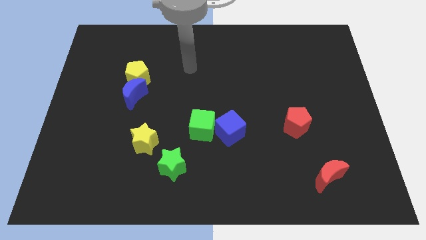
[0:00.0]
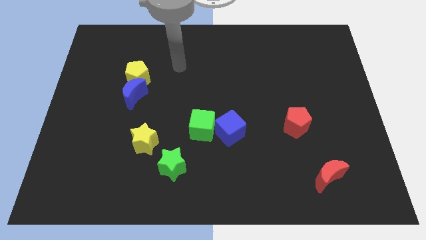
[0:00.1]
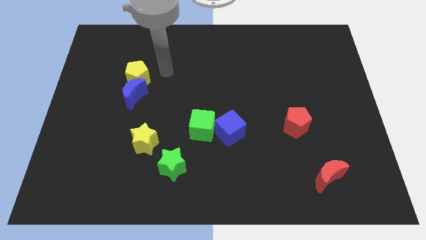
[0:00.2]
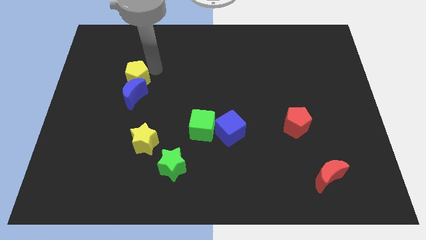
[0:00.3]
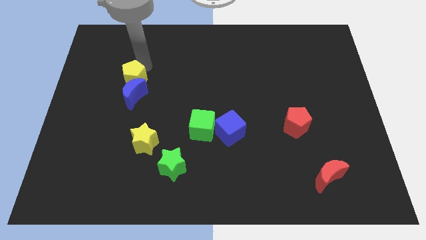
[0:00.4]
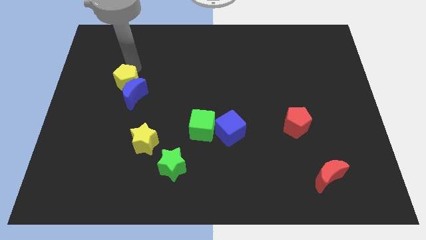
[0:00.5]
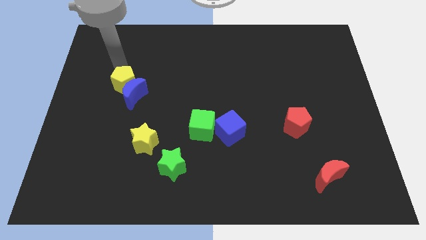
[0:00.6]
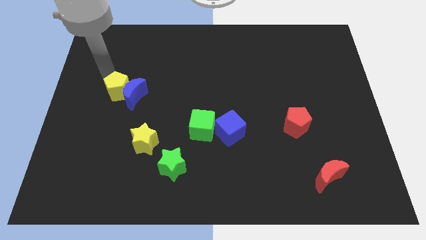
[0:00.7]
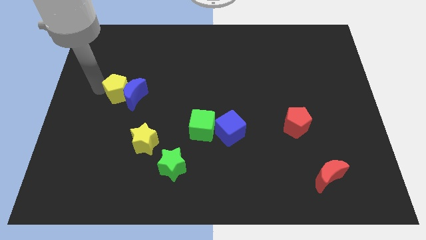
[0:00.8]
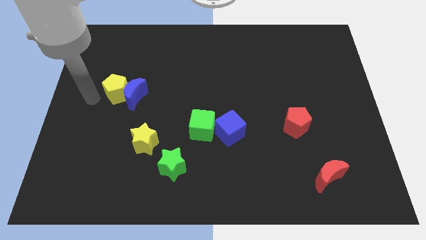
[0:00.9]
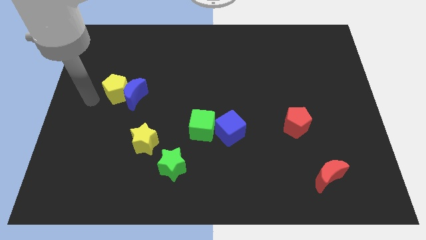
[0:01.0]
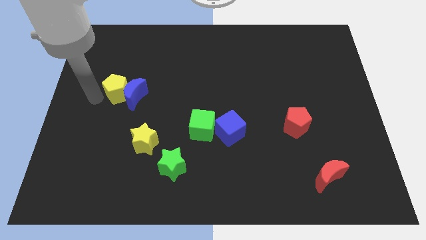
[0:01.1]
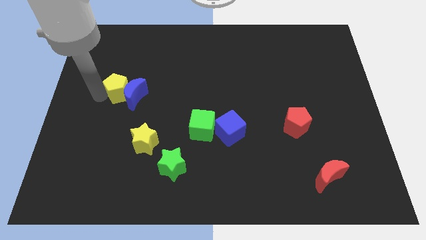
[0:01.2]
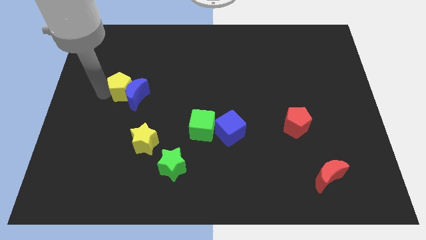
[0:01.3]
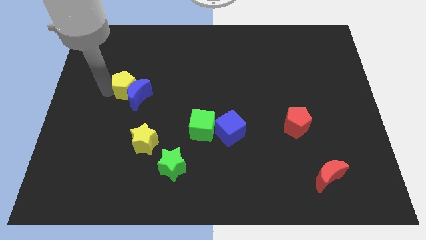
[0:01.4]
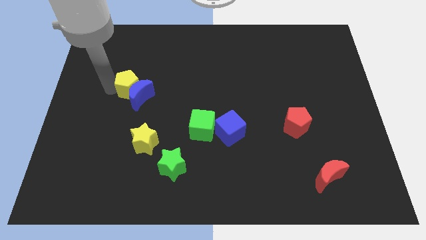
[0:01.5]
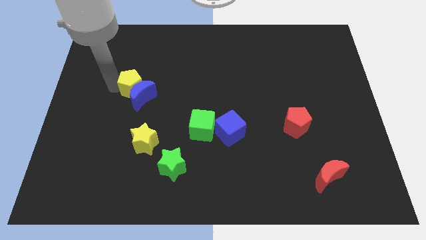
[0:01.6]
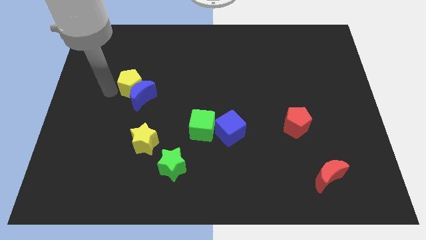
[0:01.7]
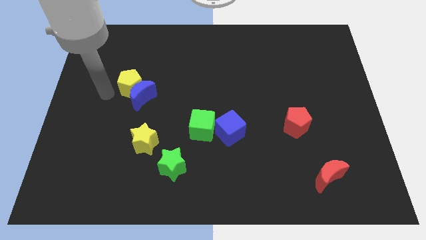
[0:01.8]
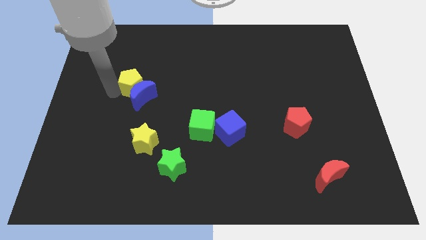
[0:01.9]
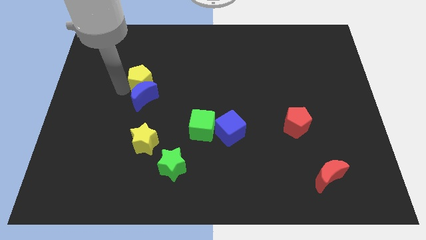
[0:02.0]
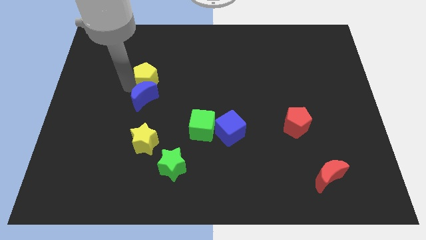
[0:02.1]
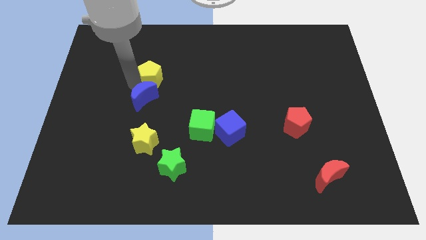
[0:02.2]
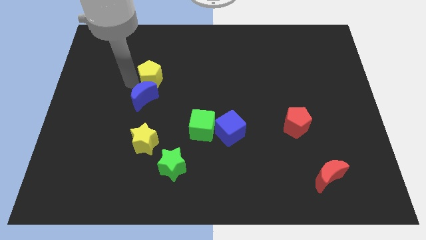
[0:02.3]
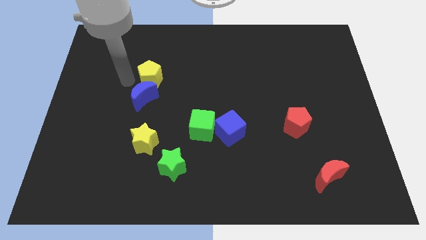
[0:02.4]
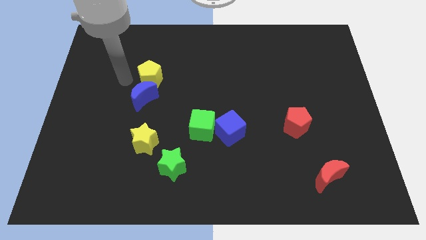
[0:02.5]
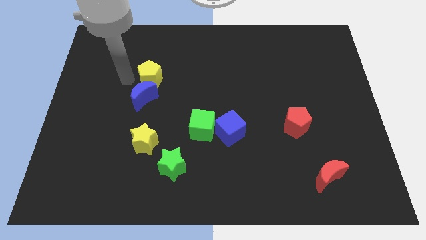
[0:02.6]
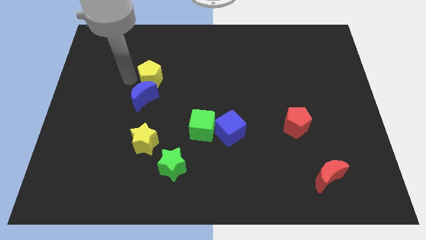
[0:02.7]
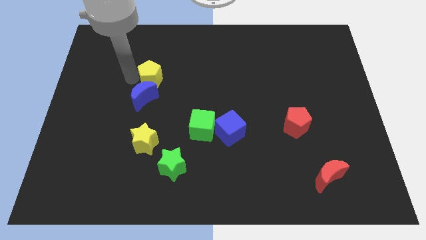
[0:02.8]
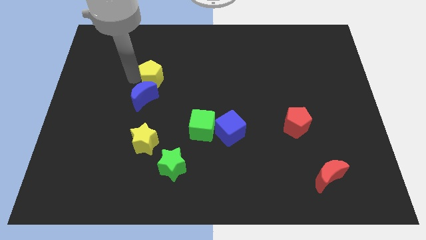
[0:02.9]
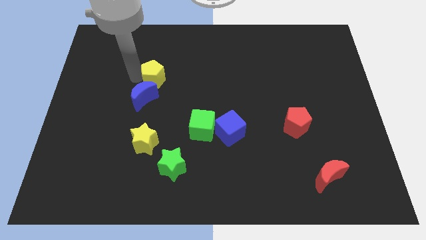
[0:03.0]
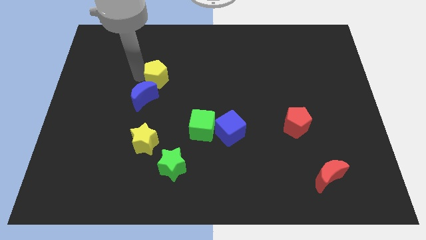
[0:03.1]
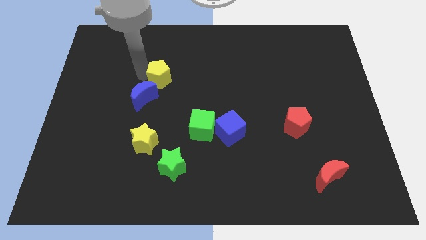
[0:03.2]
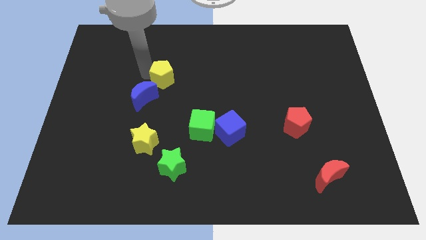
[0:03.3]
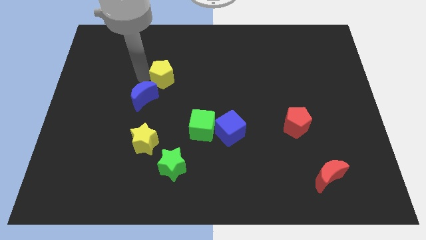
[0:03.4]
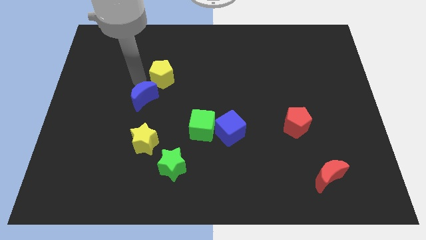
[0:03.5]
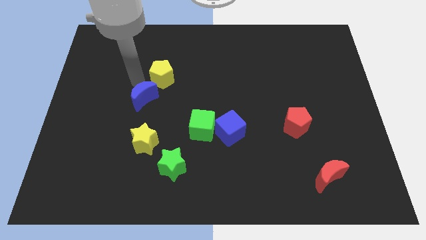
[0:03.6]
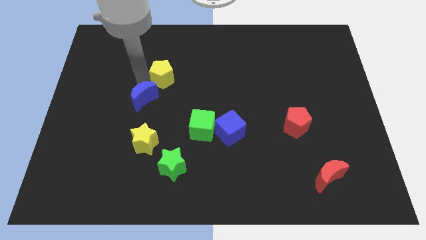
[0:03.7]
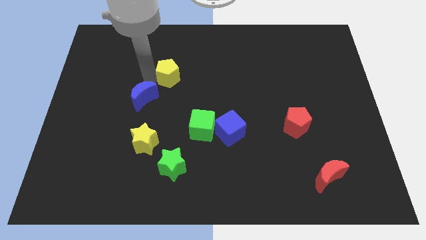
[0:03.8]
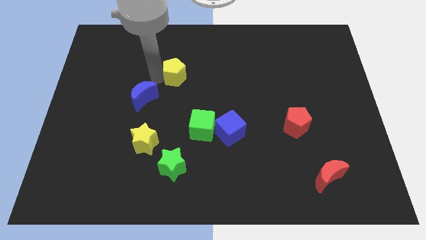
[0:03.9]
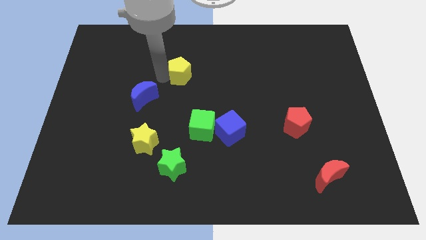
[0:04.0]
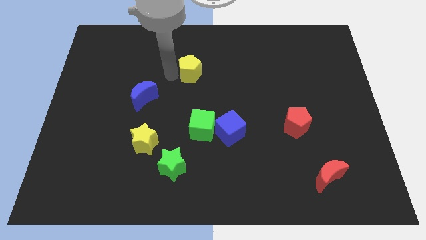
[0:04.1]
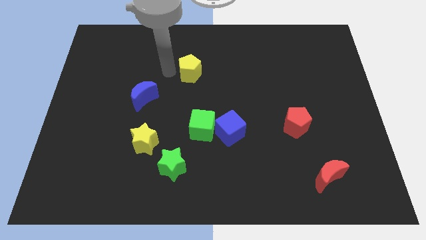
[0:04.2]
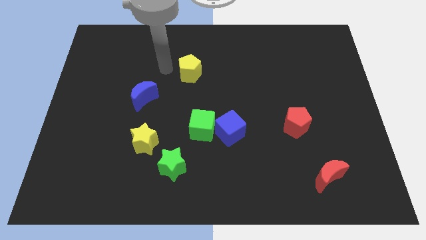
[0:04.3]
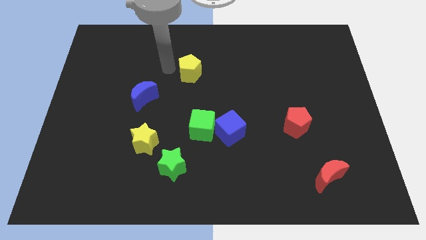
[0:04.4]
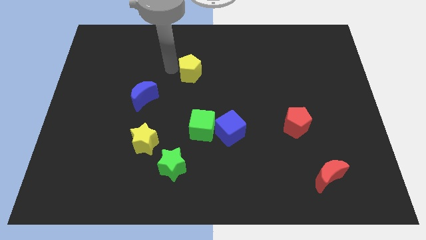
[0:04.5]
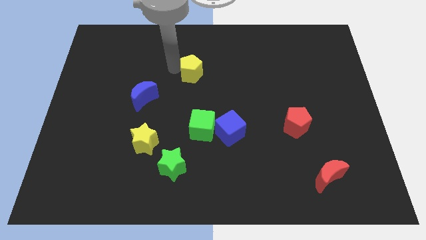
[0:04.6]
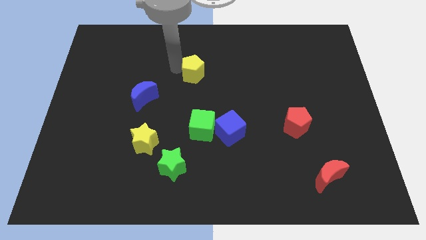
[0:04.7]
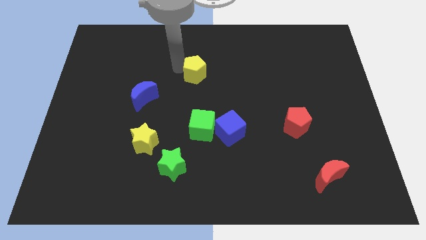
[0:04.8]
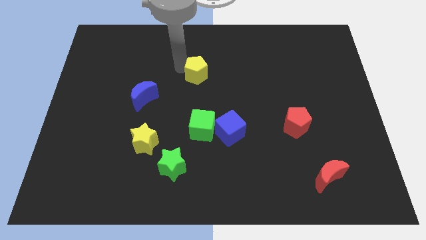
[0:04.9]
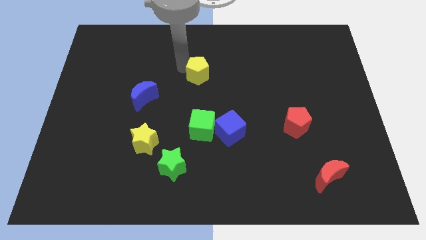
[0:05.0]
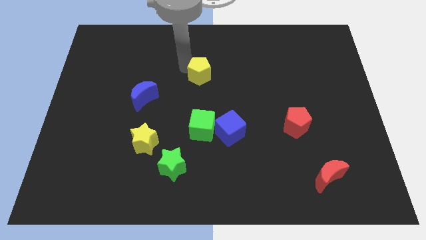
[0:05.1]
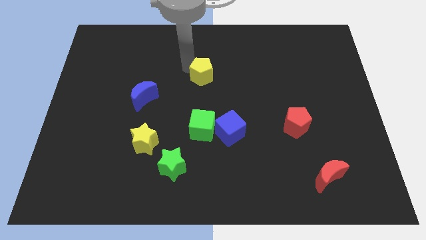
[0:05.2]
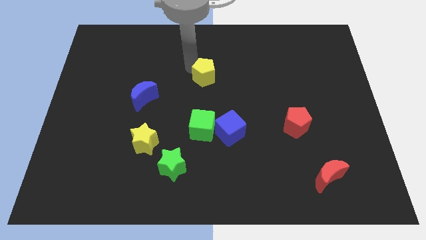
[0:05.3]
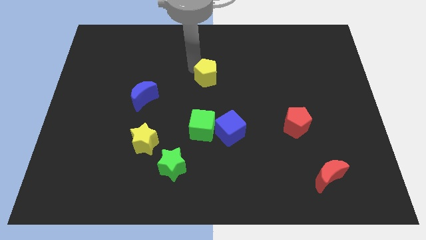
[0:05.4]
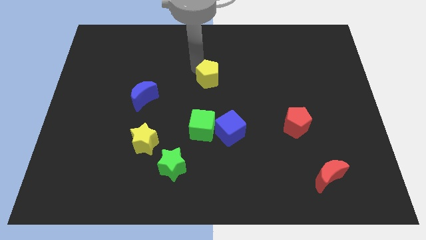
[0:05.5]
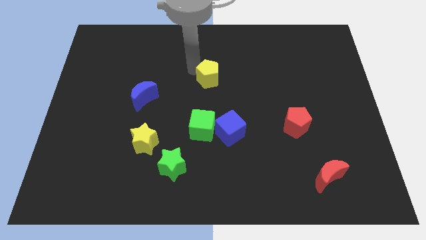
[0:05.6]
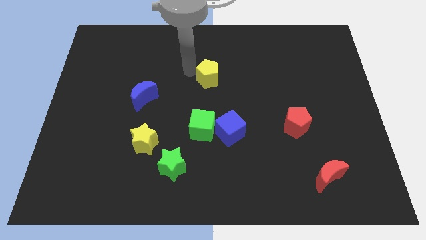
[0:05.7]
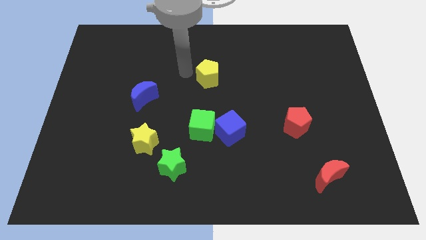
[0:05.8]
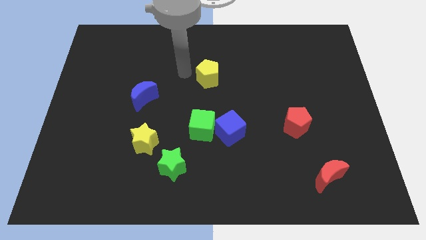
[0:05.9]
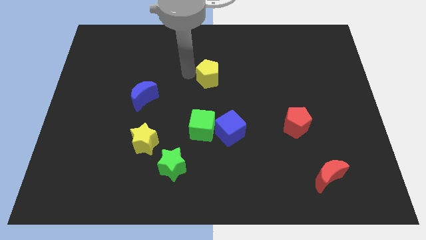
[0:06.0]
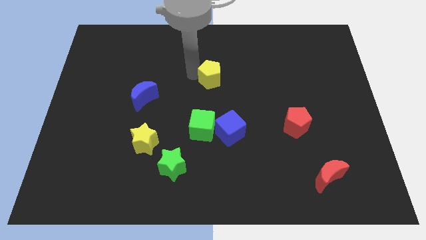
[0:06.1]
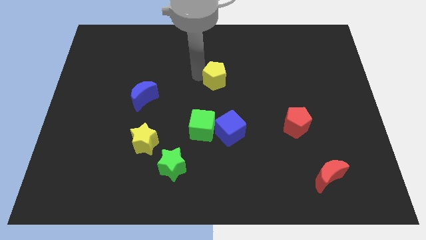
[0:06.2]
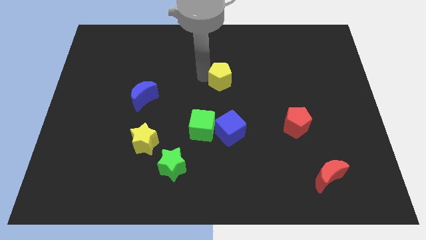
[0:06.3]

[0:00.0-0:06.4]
slide the yellow pentagon to the right

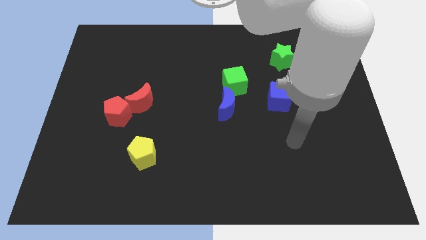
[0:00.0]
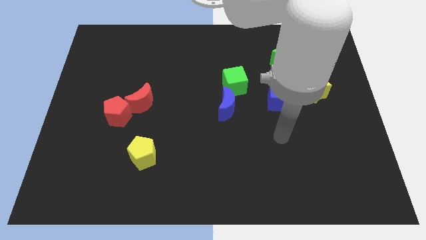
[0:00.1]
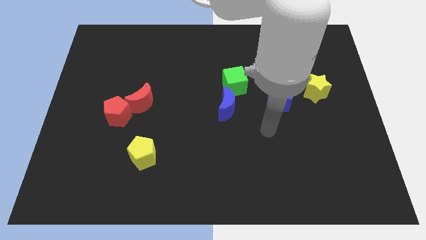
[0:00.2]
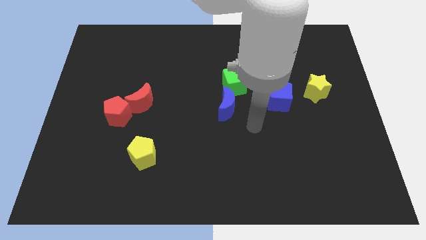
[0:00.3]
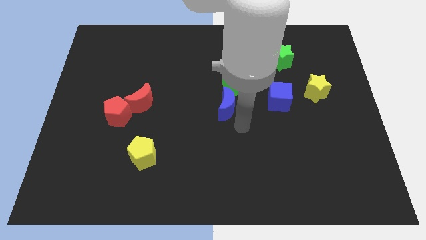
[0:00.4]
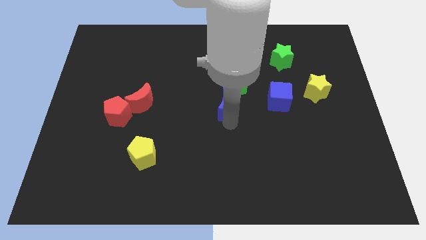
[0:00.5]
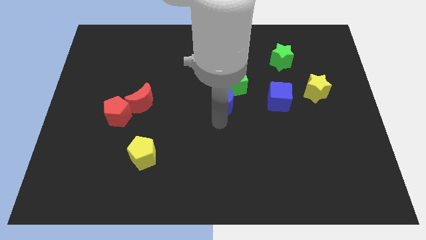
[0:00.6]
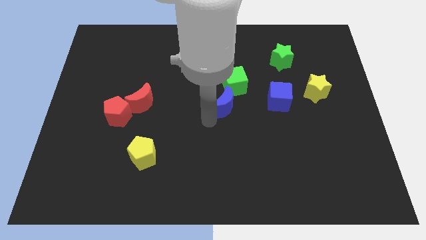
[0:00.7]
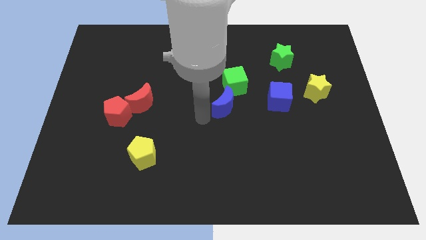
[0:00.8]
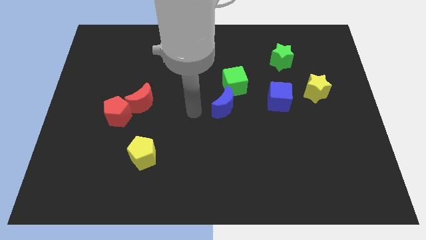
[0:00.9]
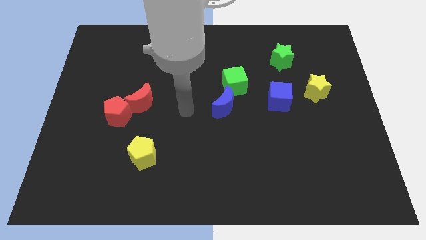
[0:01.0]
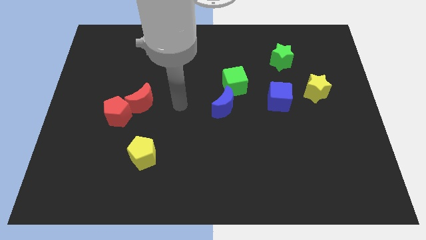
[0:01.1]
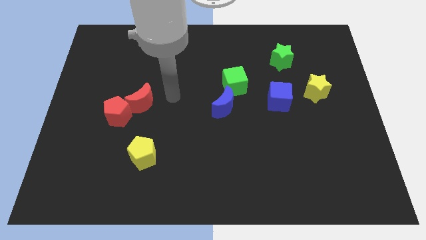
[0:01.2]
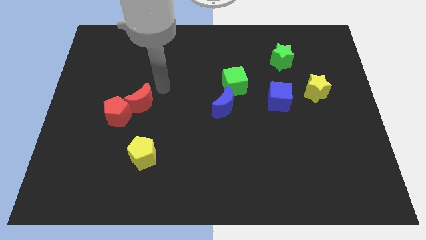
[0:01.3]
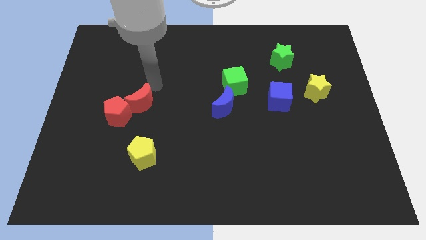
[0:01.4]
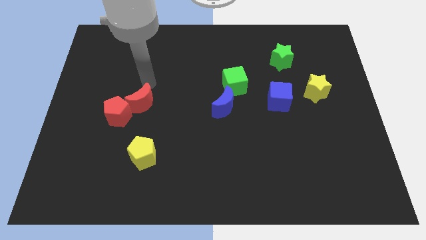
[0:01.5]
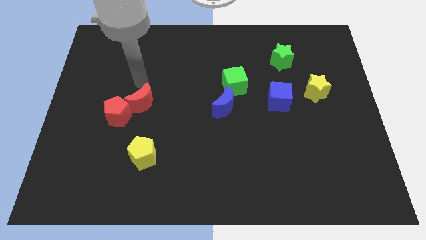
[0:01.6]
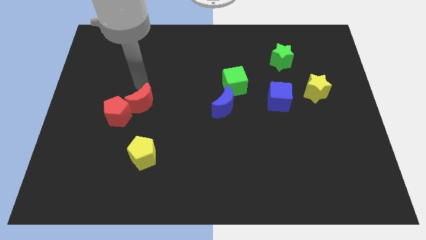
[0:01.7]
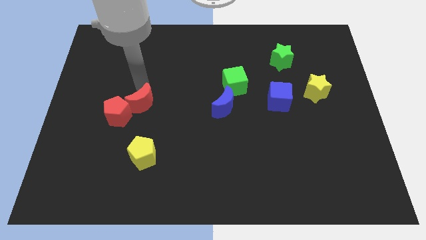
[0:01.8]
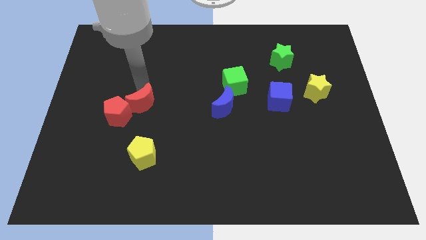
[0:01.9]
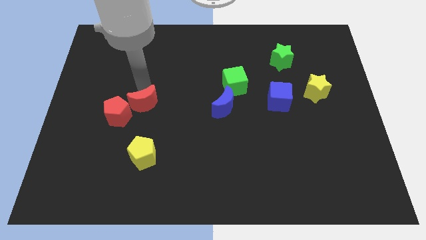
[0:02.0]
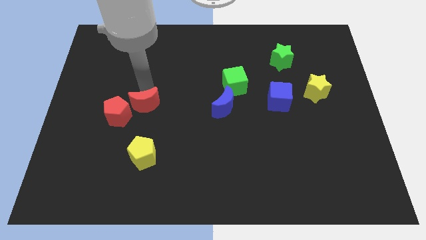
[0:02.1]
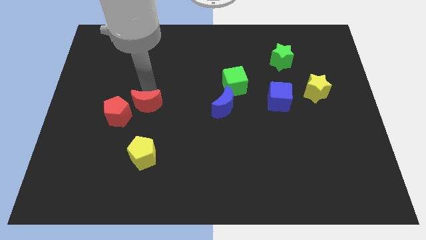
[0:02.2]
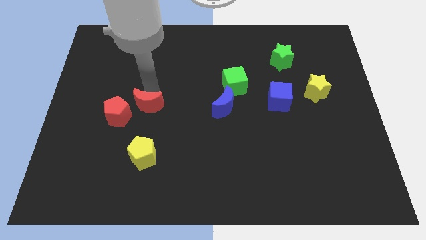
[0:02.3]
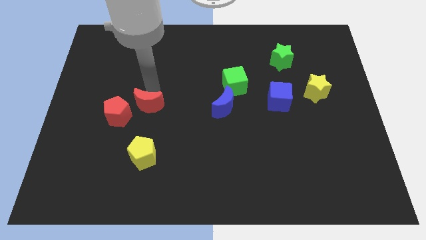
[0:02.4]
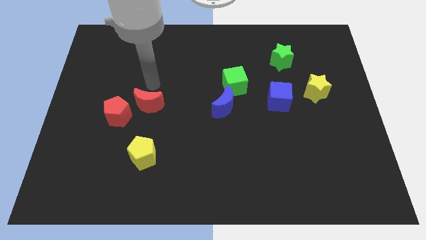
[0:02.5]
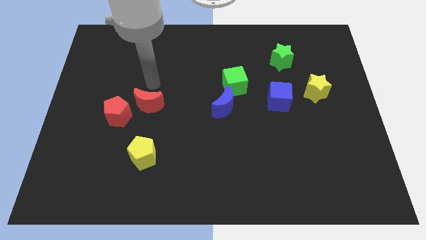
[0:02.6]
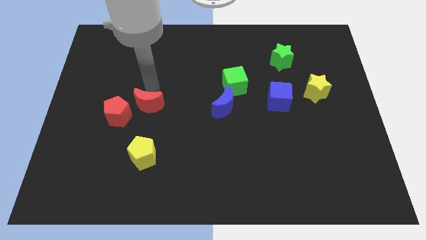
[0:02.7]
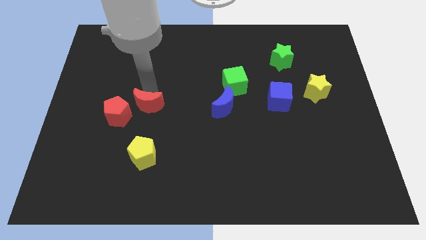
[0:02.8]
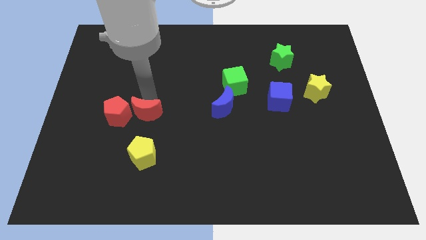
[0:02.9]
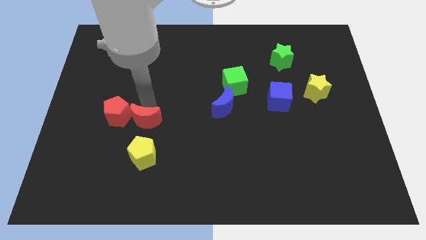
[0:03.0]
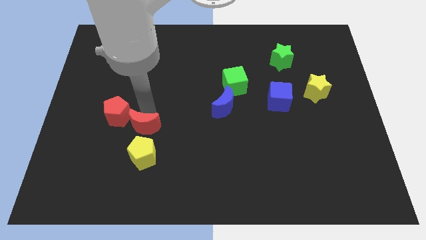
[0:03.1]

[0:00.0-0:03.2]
slightly move the red moon downwards
